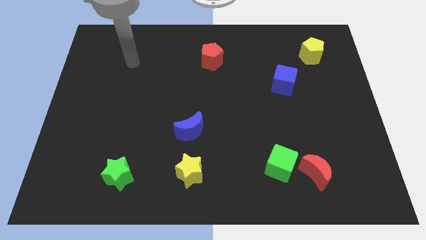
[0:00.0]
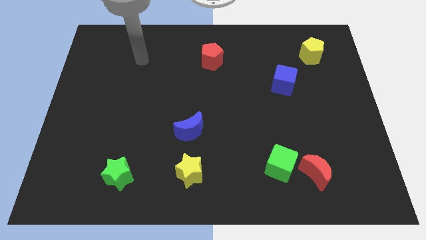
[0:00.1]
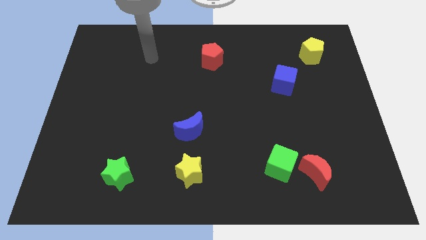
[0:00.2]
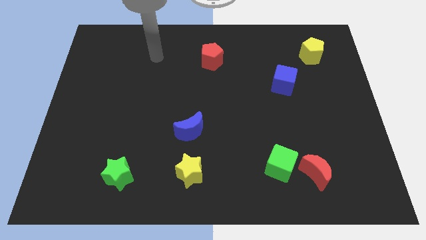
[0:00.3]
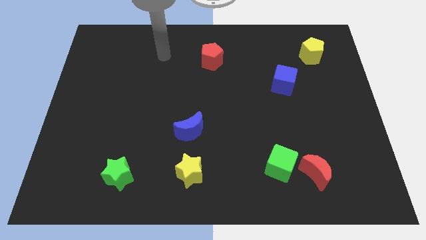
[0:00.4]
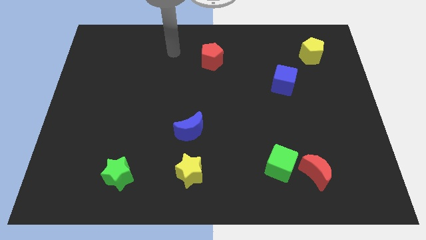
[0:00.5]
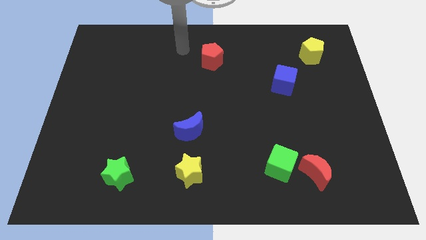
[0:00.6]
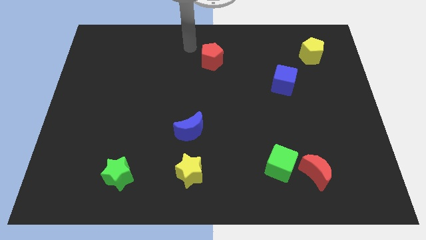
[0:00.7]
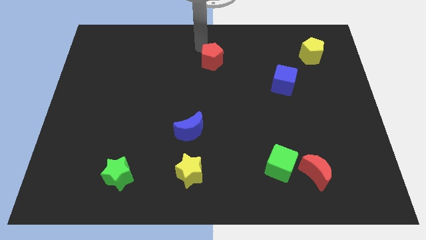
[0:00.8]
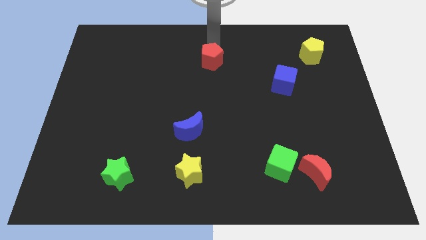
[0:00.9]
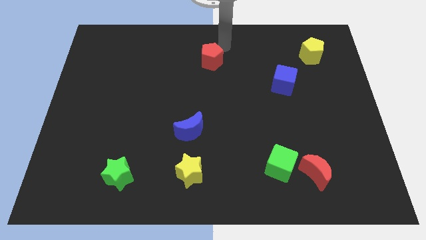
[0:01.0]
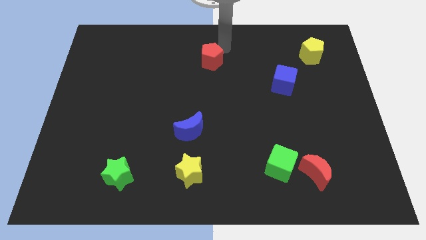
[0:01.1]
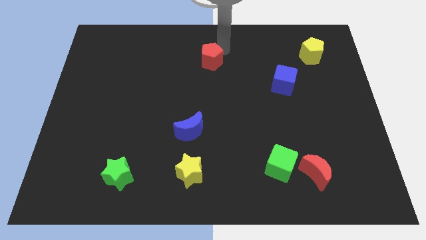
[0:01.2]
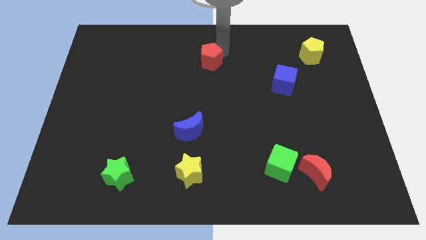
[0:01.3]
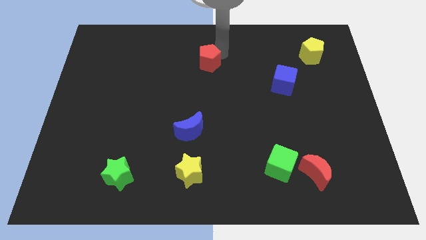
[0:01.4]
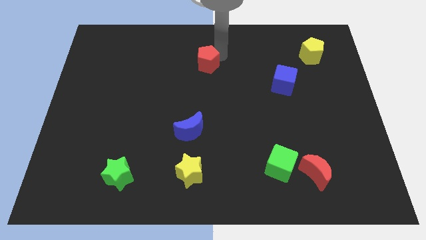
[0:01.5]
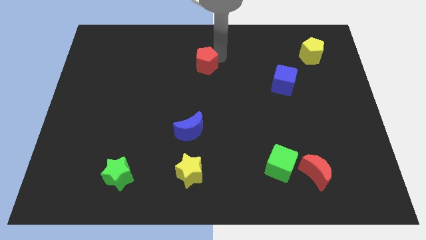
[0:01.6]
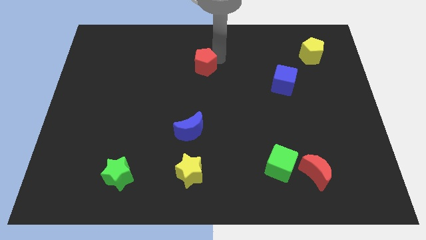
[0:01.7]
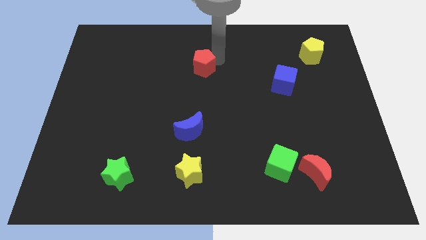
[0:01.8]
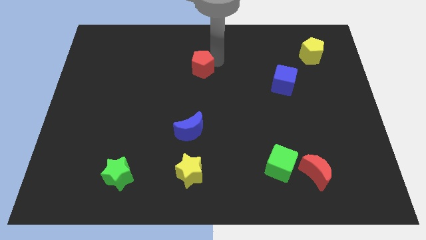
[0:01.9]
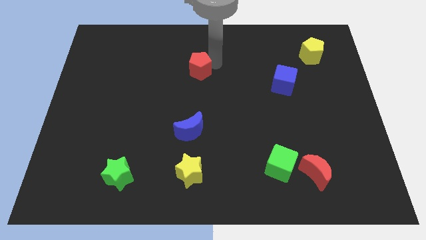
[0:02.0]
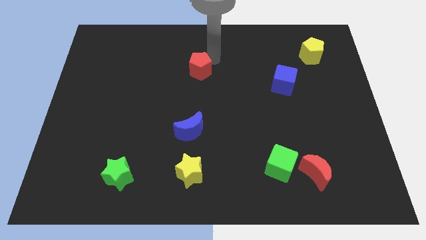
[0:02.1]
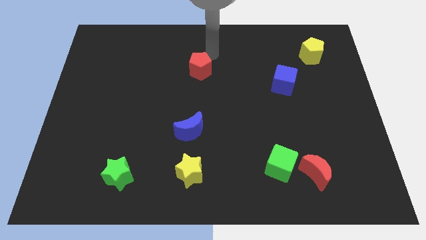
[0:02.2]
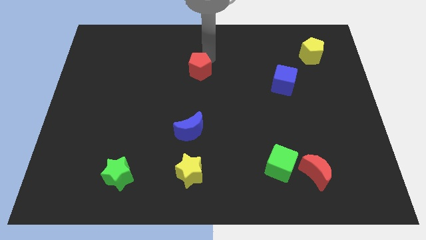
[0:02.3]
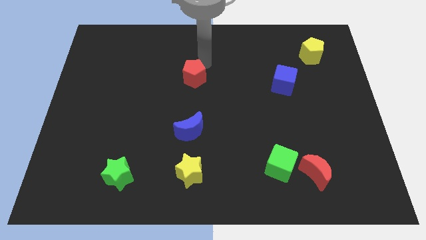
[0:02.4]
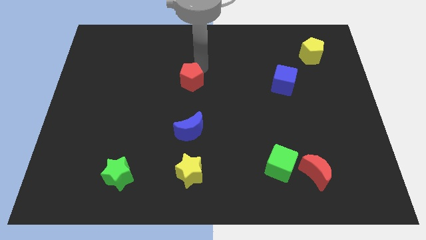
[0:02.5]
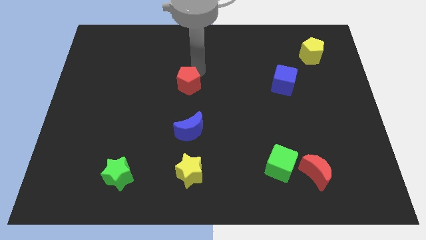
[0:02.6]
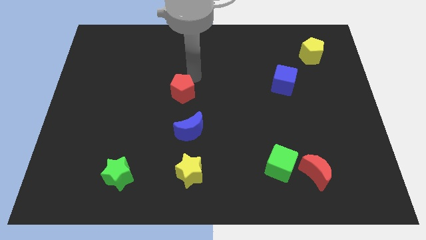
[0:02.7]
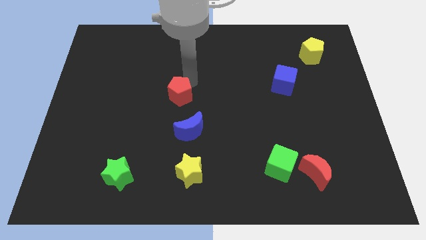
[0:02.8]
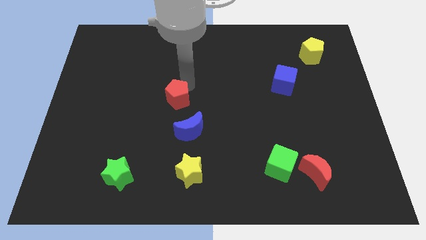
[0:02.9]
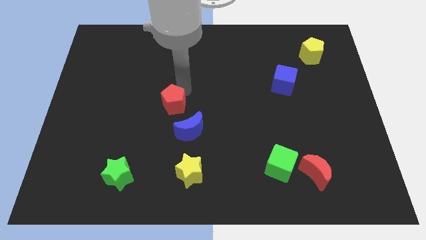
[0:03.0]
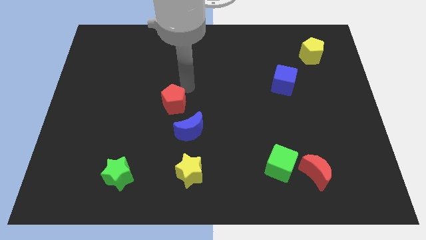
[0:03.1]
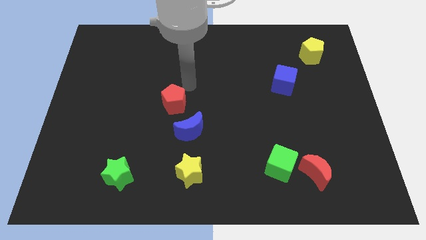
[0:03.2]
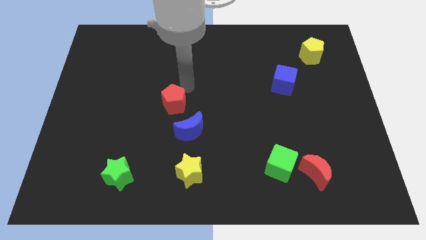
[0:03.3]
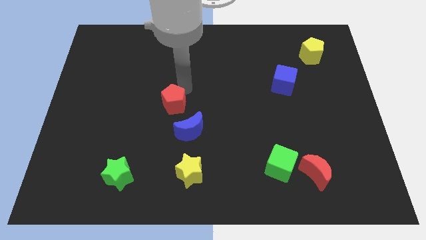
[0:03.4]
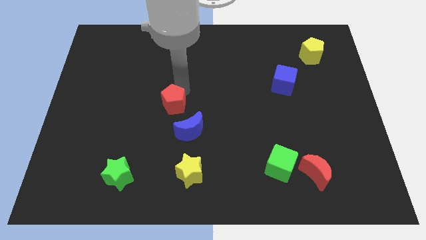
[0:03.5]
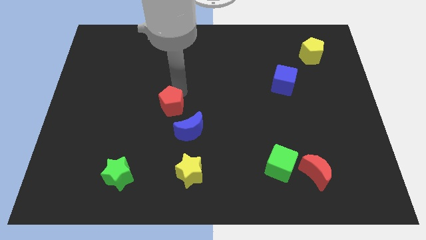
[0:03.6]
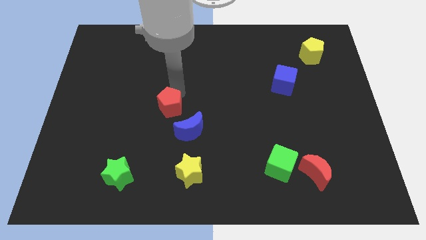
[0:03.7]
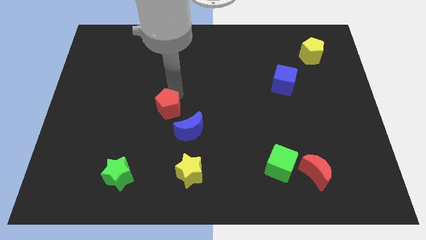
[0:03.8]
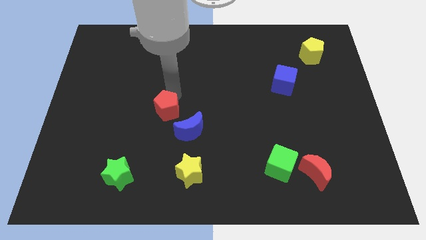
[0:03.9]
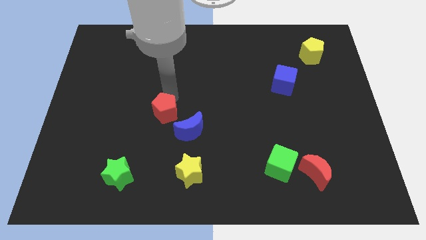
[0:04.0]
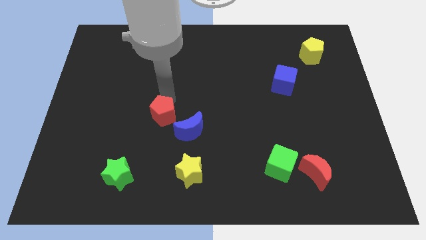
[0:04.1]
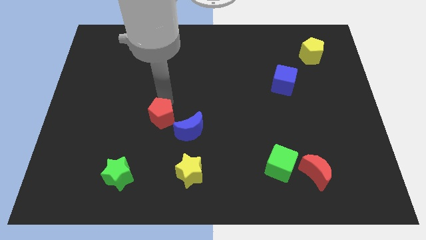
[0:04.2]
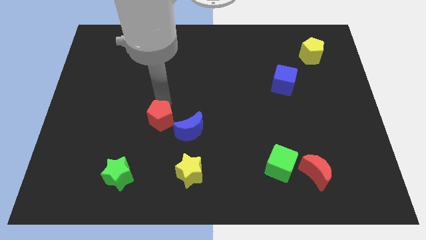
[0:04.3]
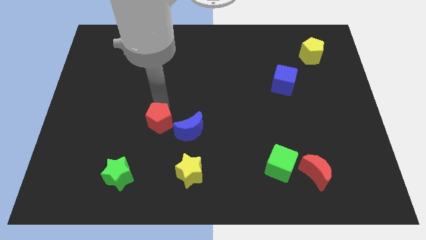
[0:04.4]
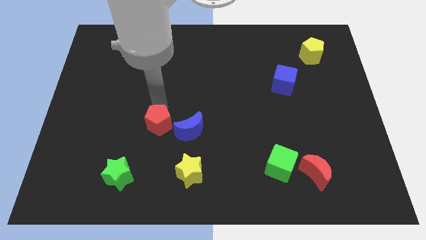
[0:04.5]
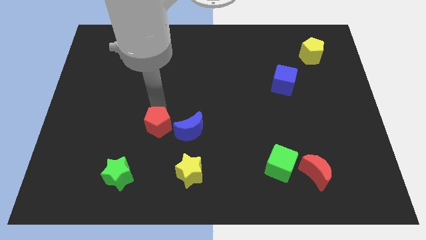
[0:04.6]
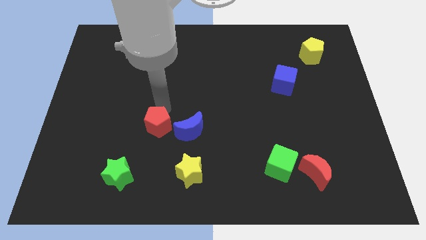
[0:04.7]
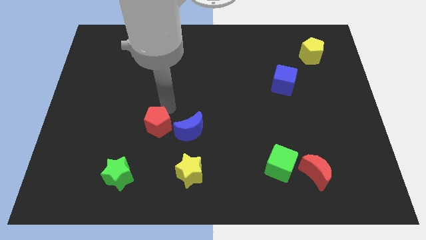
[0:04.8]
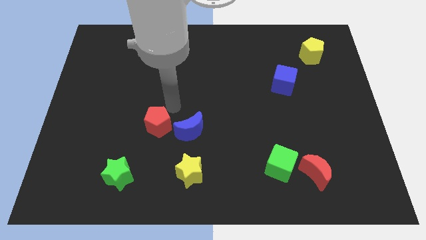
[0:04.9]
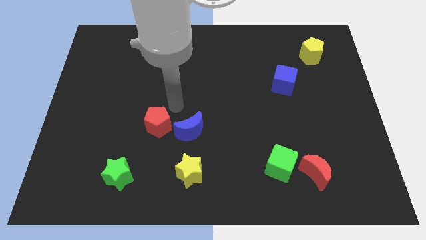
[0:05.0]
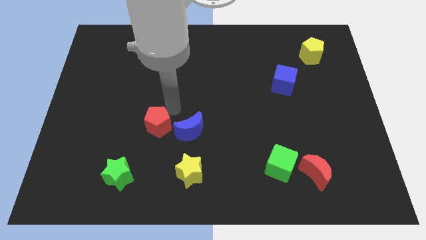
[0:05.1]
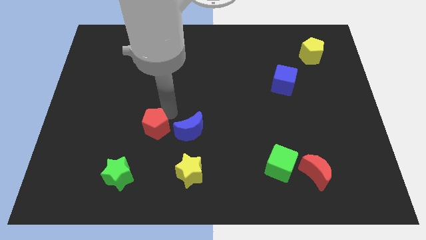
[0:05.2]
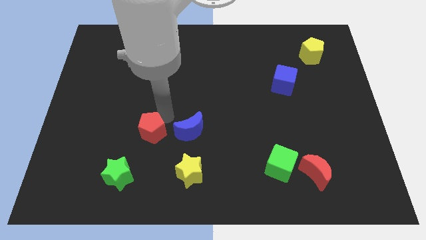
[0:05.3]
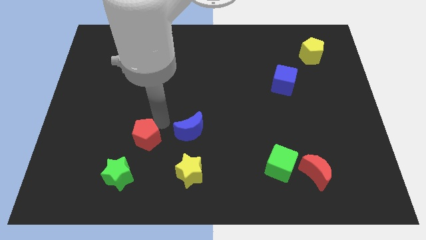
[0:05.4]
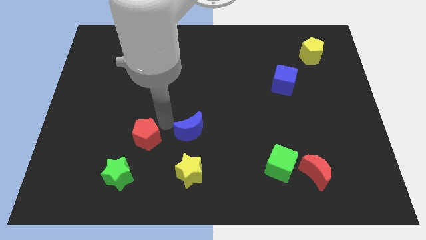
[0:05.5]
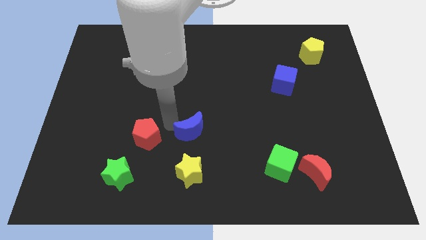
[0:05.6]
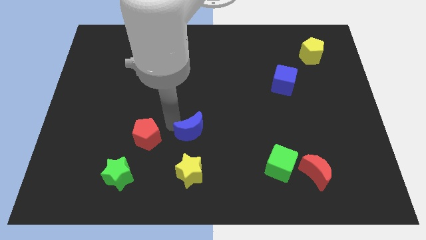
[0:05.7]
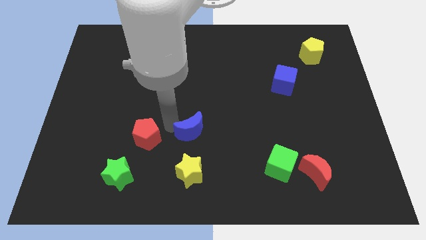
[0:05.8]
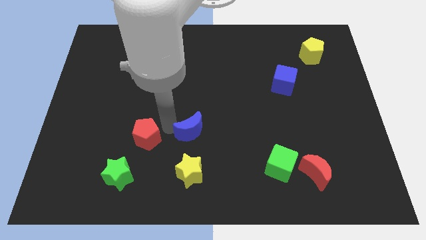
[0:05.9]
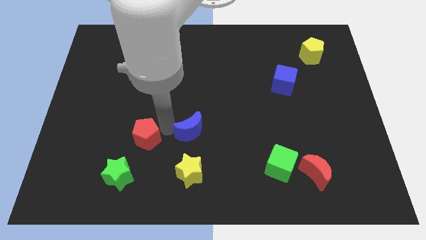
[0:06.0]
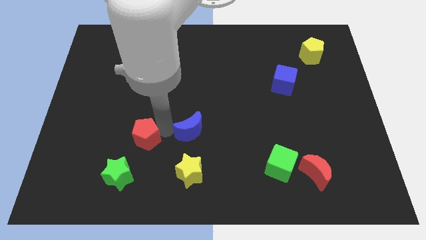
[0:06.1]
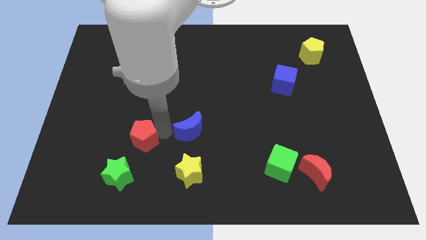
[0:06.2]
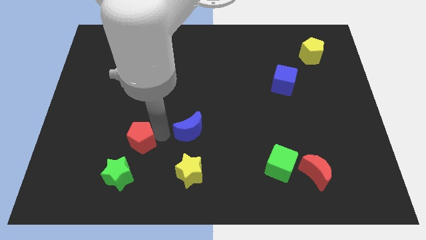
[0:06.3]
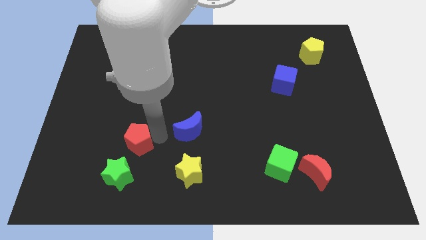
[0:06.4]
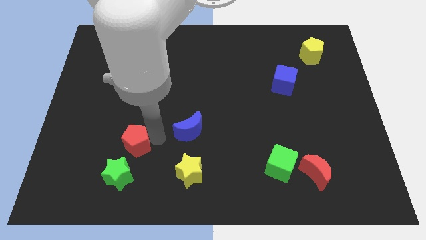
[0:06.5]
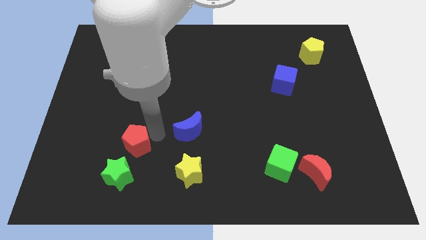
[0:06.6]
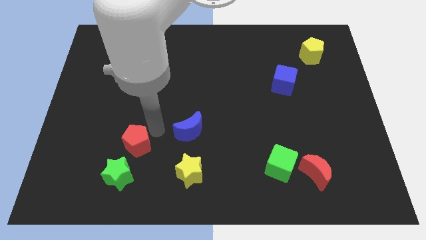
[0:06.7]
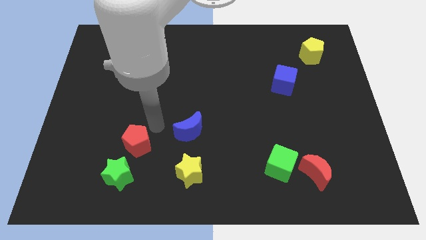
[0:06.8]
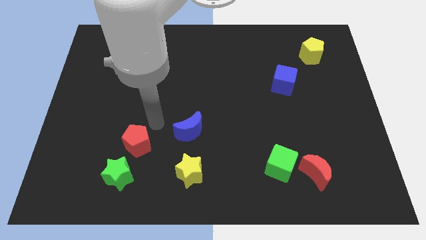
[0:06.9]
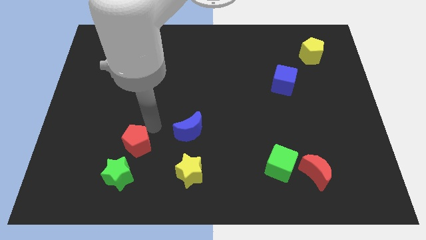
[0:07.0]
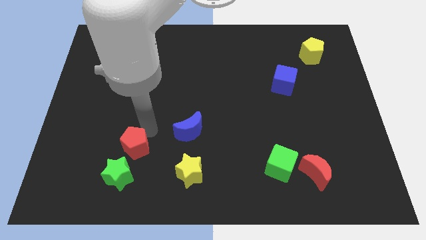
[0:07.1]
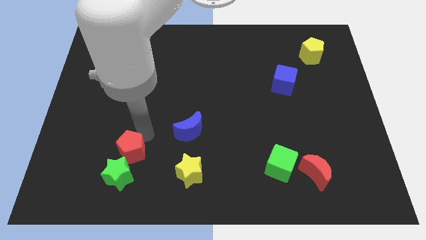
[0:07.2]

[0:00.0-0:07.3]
push the red pentagon next to the green star

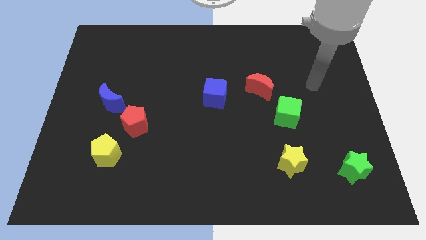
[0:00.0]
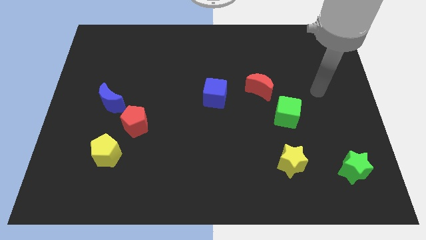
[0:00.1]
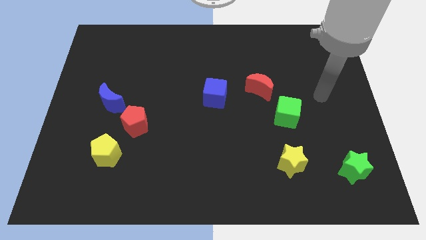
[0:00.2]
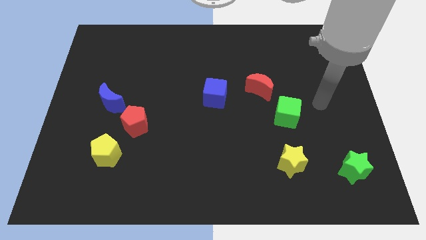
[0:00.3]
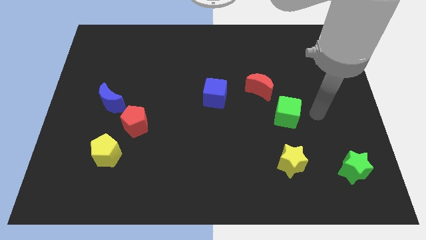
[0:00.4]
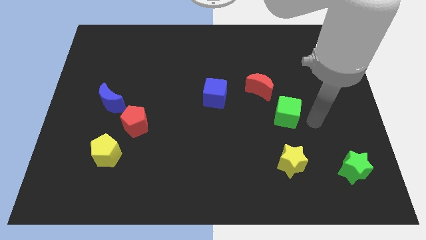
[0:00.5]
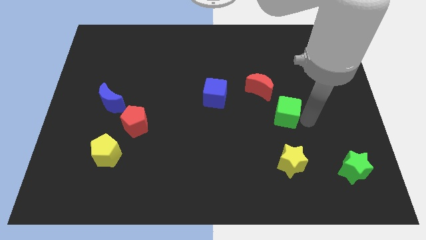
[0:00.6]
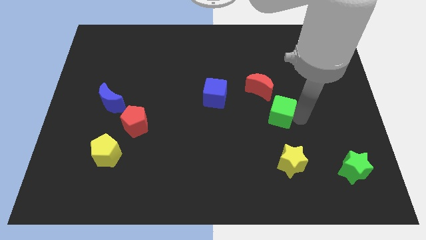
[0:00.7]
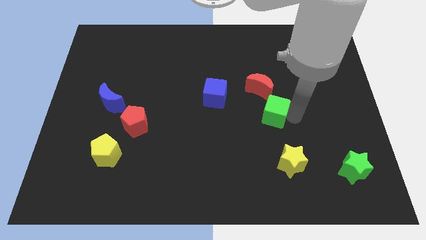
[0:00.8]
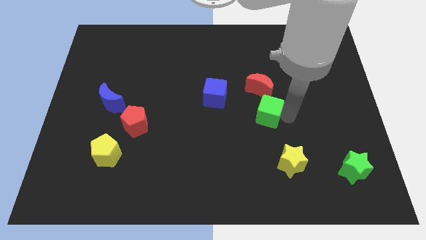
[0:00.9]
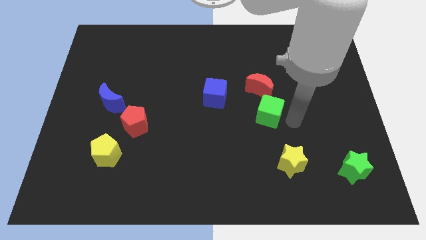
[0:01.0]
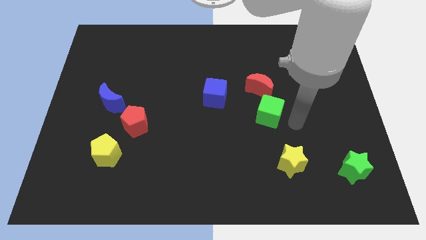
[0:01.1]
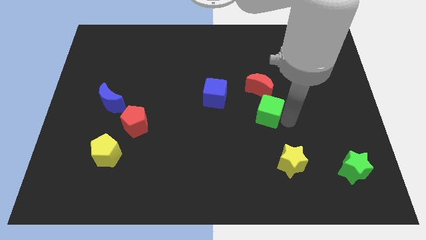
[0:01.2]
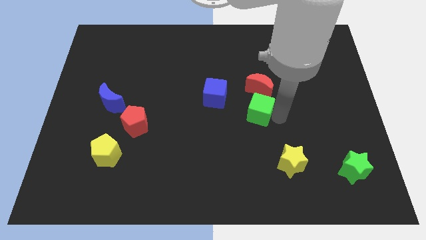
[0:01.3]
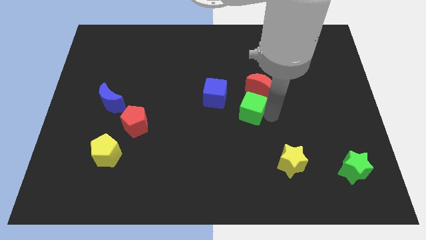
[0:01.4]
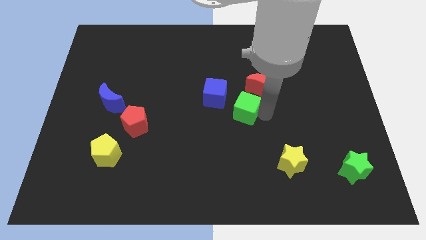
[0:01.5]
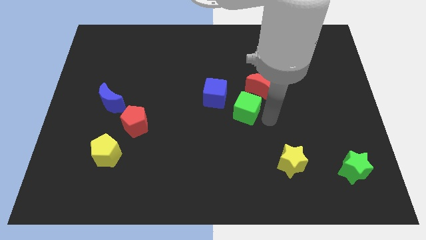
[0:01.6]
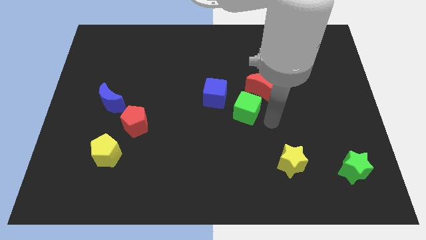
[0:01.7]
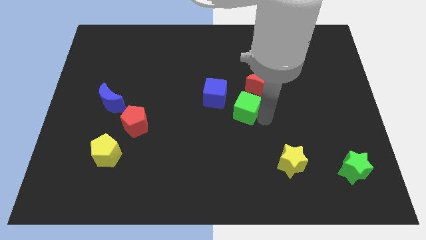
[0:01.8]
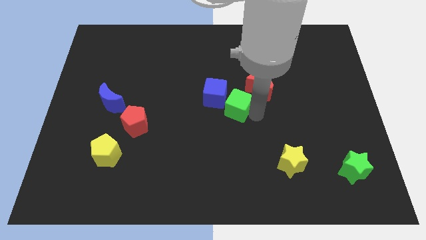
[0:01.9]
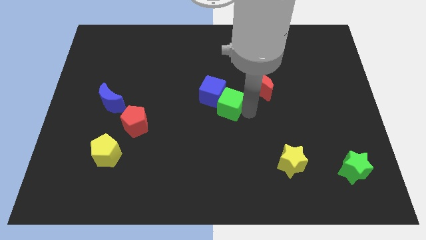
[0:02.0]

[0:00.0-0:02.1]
push the green cube to the blue cube
